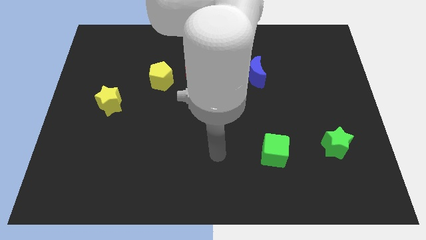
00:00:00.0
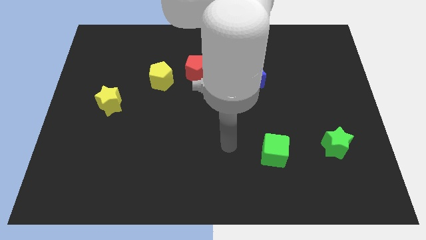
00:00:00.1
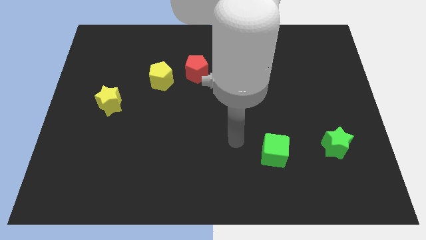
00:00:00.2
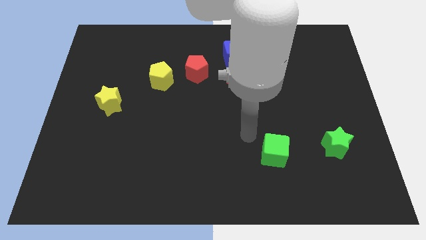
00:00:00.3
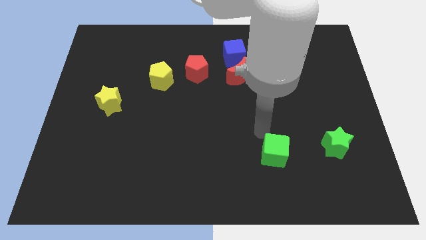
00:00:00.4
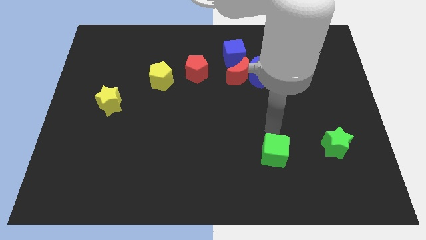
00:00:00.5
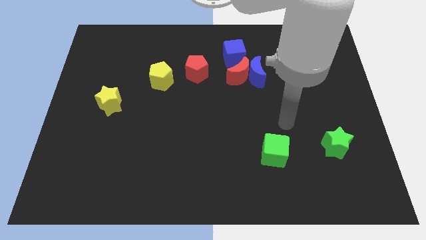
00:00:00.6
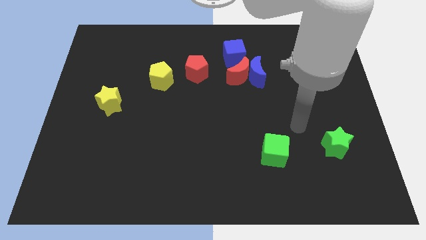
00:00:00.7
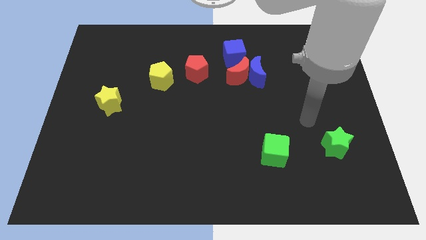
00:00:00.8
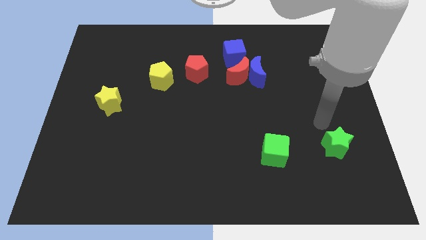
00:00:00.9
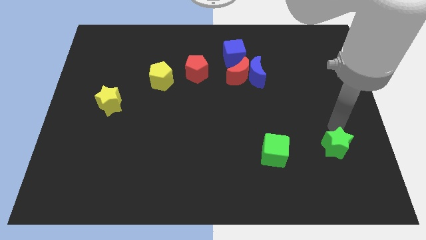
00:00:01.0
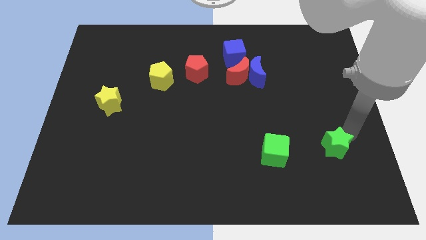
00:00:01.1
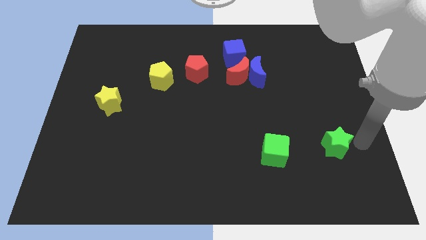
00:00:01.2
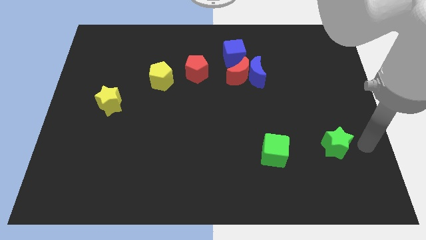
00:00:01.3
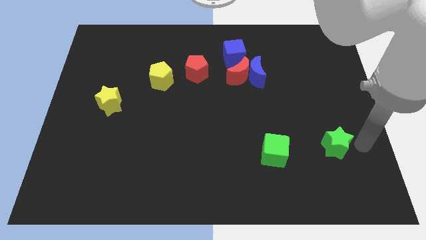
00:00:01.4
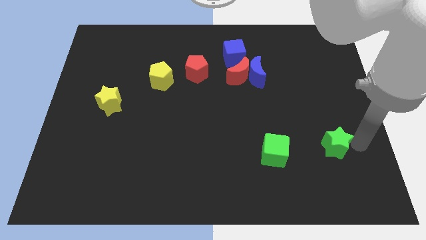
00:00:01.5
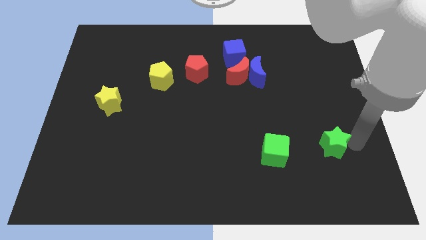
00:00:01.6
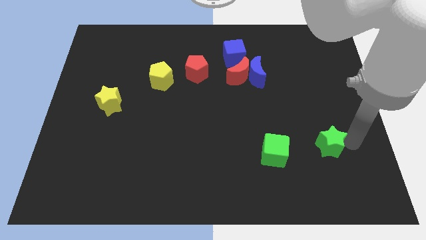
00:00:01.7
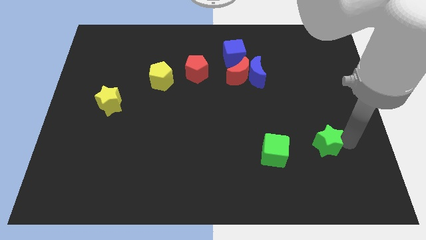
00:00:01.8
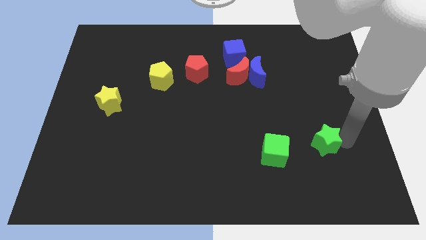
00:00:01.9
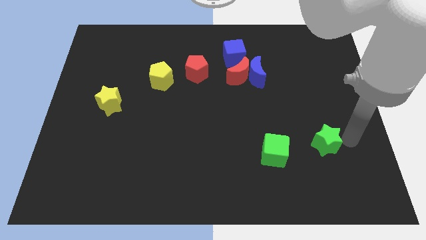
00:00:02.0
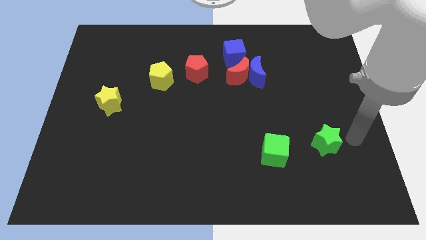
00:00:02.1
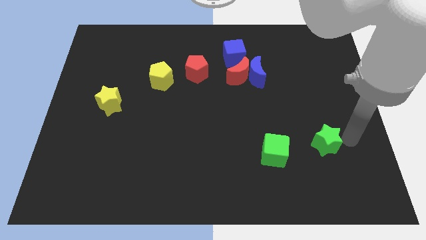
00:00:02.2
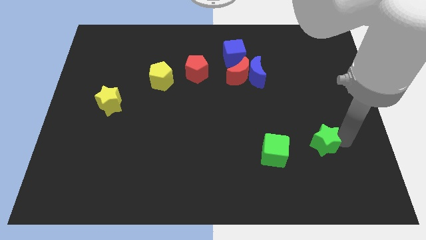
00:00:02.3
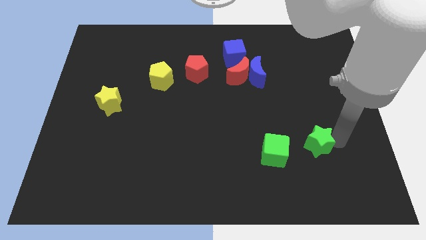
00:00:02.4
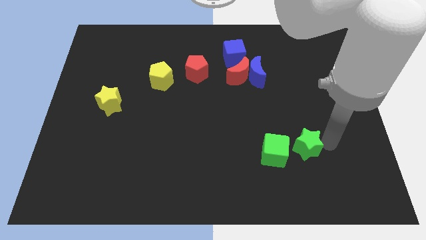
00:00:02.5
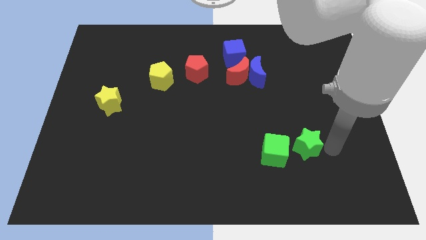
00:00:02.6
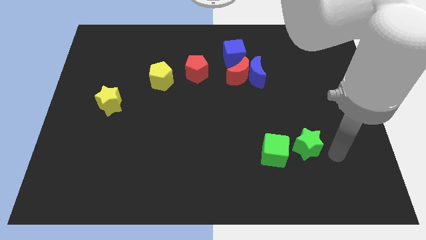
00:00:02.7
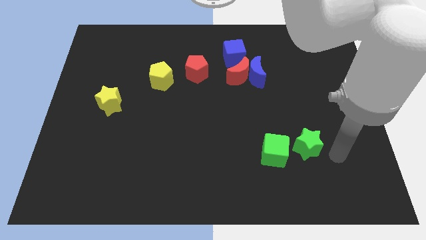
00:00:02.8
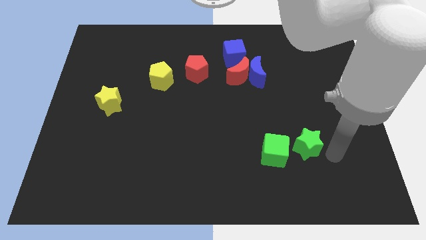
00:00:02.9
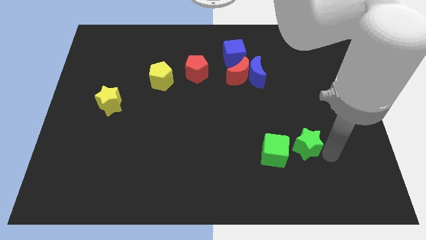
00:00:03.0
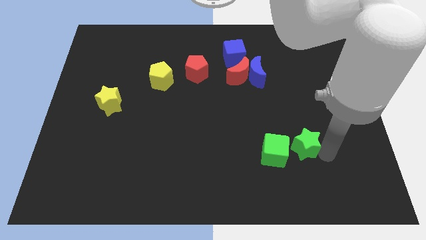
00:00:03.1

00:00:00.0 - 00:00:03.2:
slide the green star somewhat to the left

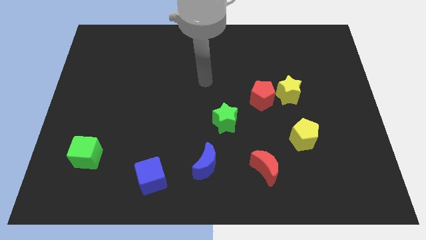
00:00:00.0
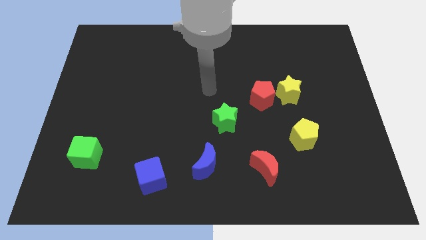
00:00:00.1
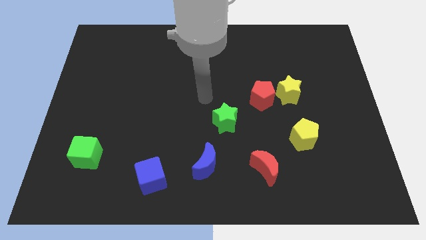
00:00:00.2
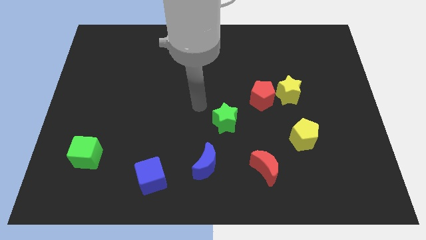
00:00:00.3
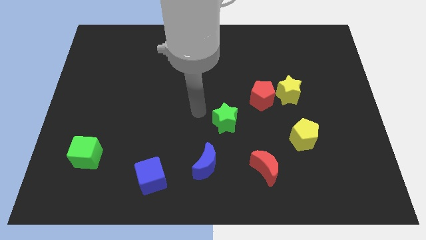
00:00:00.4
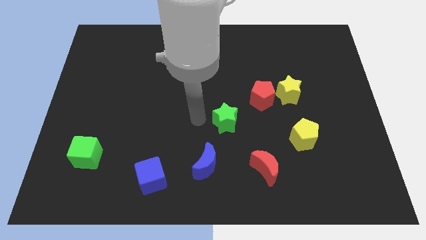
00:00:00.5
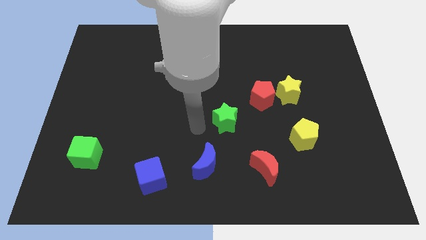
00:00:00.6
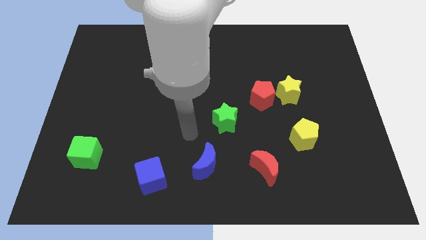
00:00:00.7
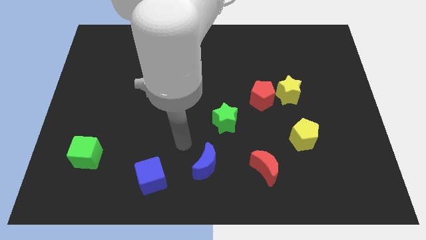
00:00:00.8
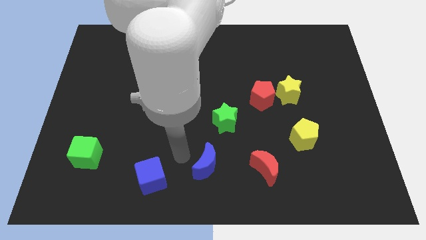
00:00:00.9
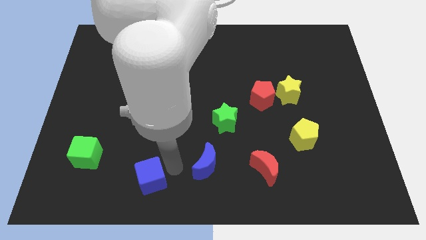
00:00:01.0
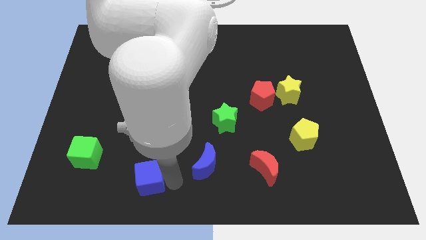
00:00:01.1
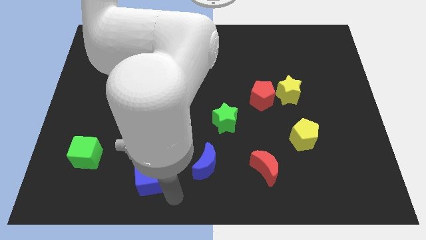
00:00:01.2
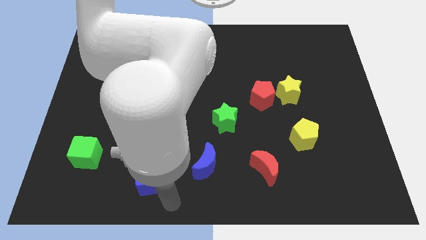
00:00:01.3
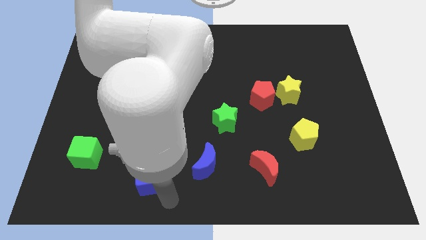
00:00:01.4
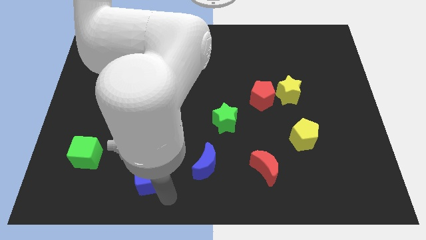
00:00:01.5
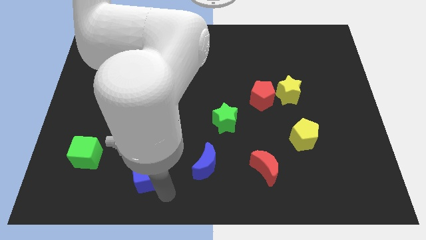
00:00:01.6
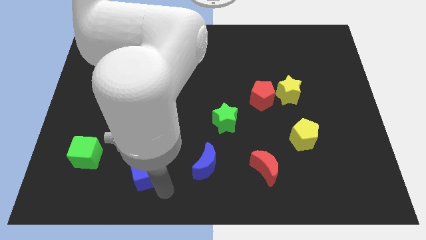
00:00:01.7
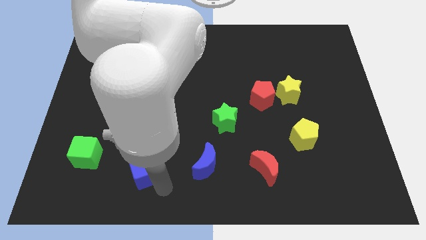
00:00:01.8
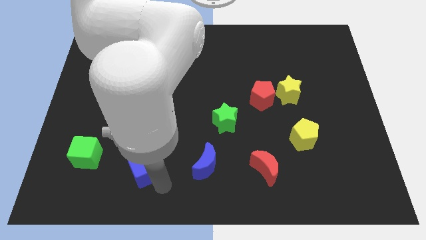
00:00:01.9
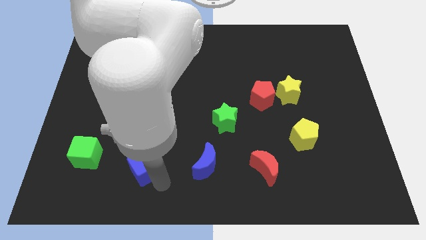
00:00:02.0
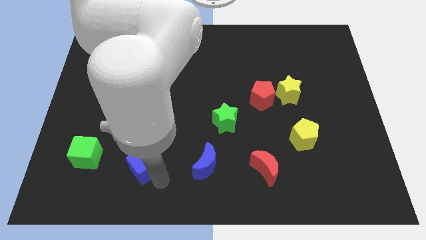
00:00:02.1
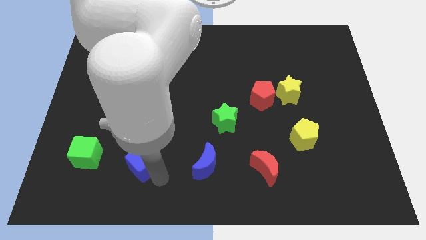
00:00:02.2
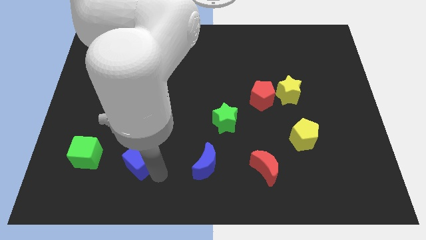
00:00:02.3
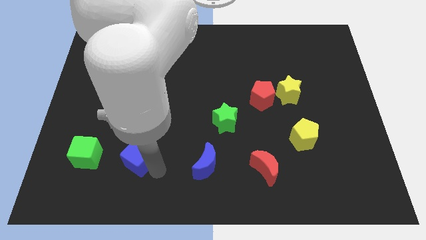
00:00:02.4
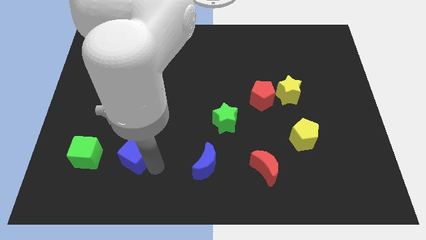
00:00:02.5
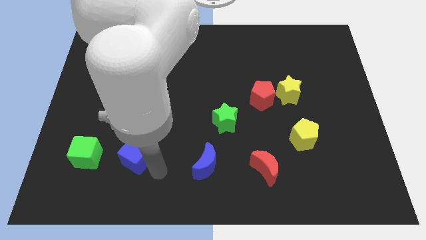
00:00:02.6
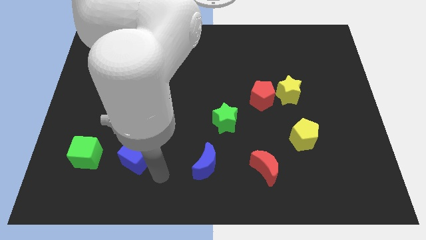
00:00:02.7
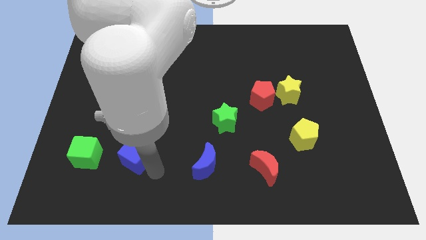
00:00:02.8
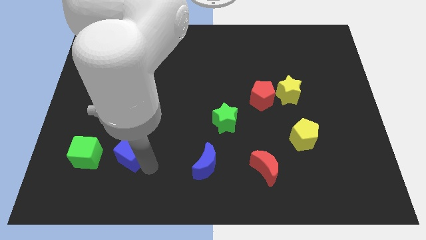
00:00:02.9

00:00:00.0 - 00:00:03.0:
slightly push the blue cube upwards and to the left diagonally

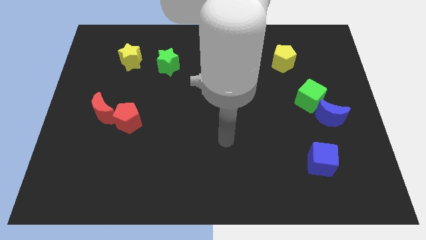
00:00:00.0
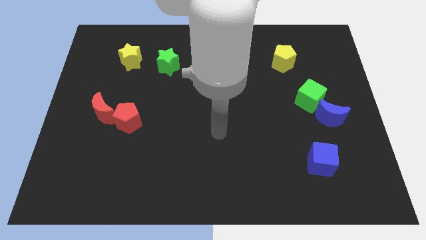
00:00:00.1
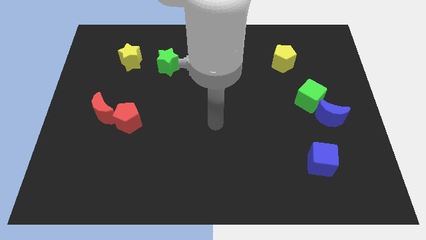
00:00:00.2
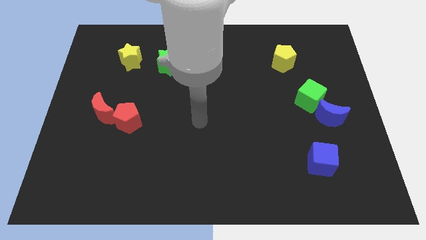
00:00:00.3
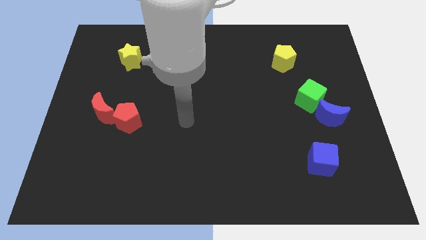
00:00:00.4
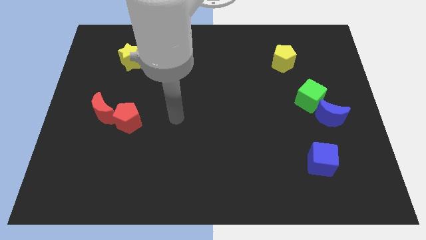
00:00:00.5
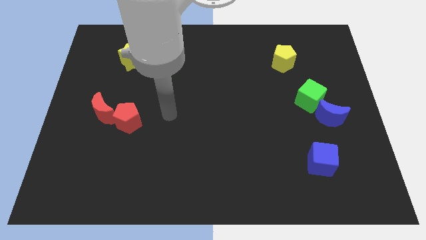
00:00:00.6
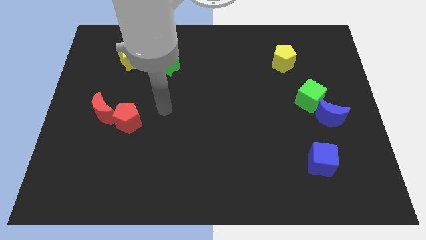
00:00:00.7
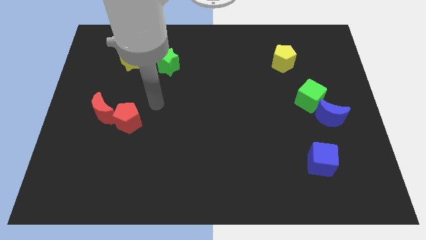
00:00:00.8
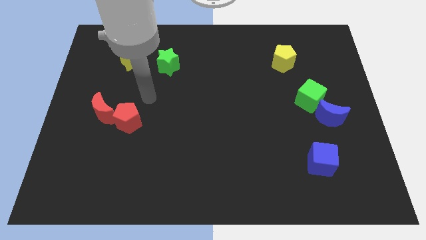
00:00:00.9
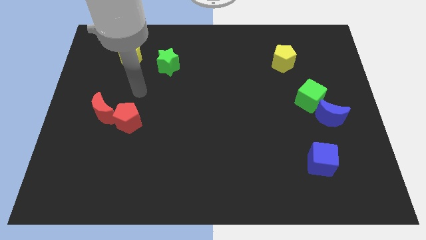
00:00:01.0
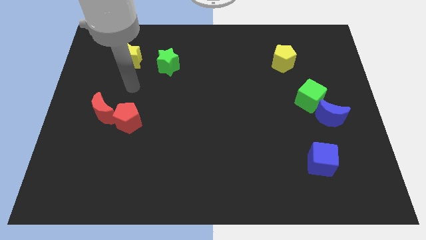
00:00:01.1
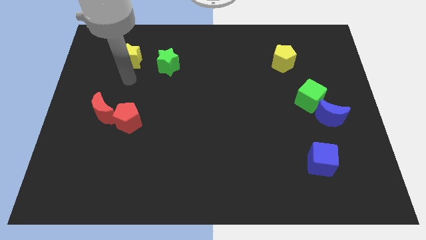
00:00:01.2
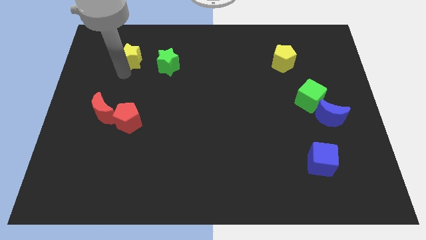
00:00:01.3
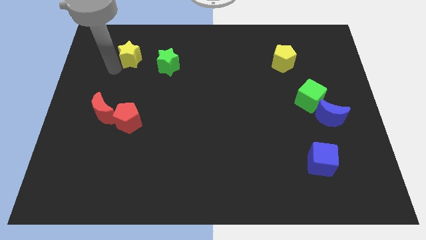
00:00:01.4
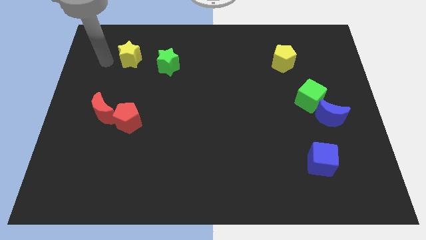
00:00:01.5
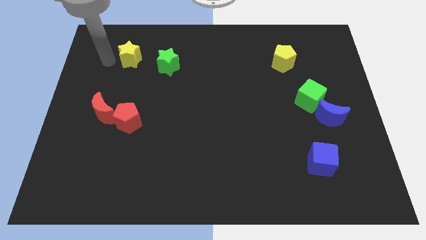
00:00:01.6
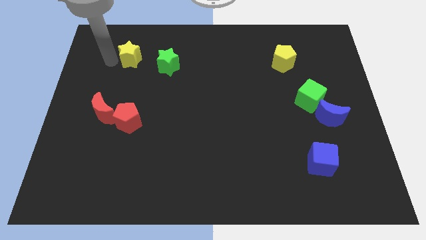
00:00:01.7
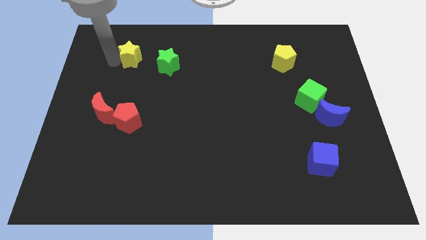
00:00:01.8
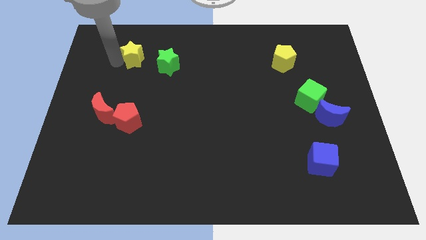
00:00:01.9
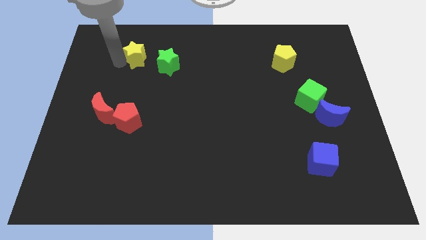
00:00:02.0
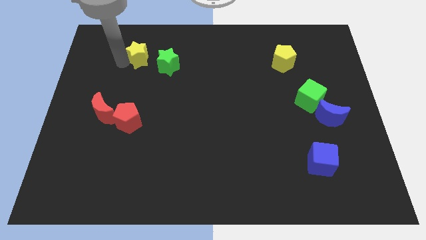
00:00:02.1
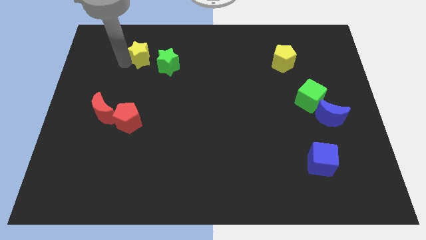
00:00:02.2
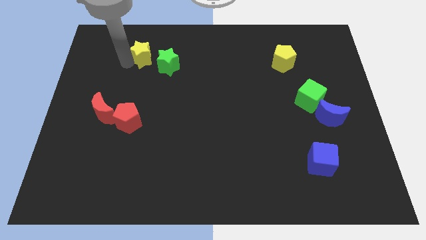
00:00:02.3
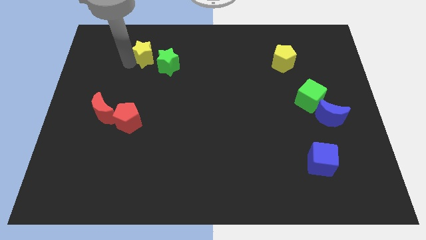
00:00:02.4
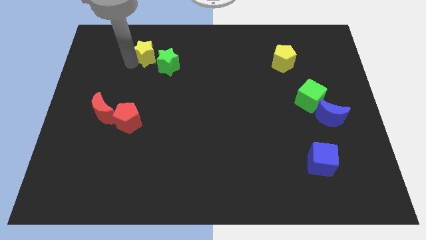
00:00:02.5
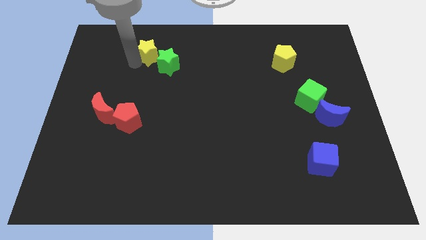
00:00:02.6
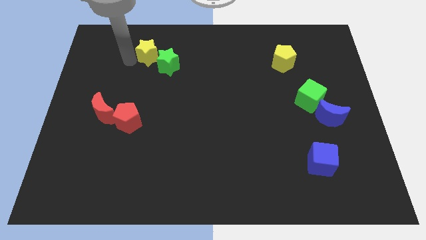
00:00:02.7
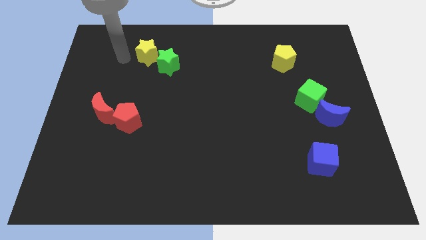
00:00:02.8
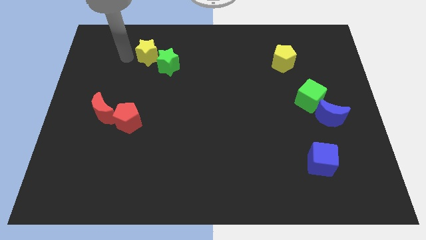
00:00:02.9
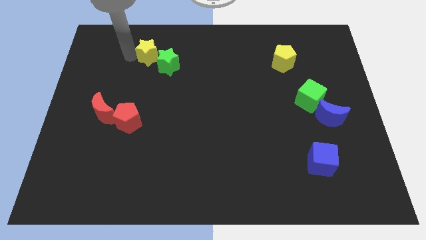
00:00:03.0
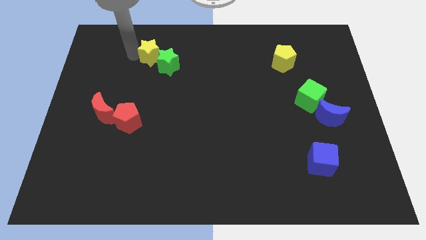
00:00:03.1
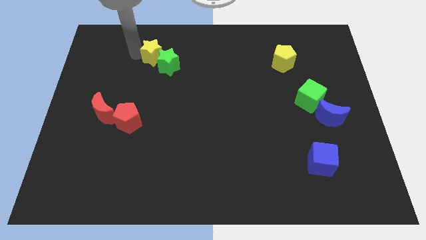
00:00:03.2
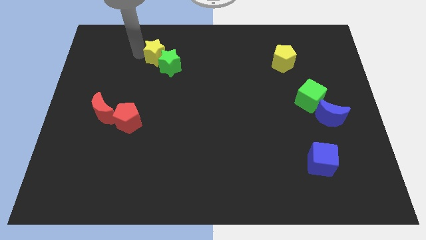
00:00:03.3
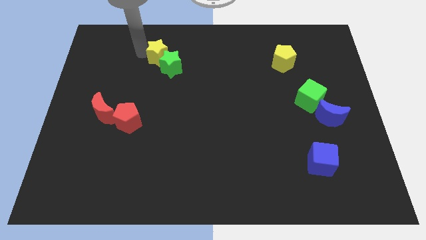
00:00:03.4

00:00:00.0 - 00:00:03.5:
slide the yellow star slightly to the right
